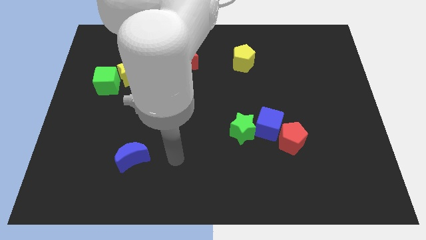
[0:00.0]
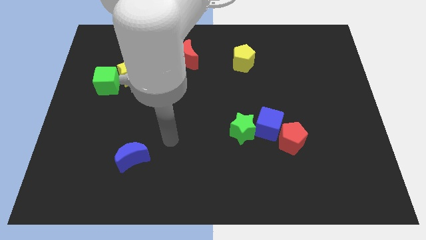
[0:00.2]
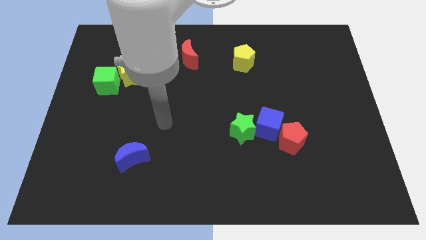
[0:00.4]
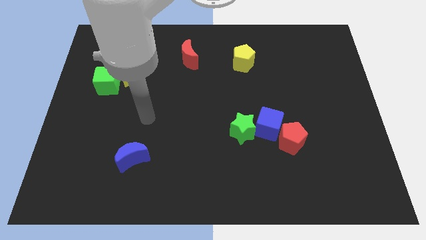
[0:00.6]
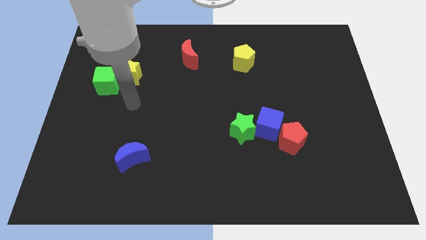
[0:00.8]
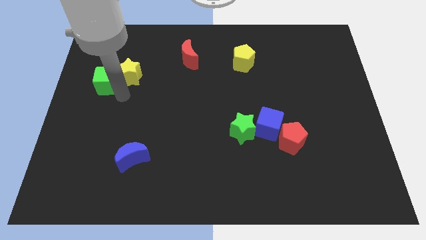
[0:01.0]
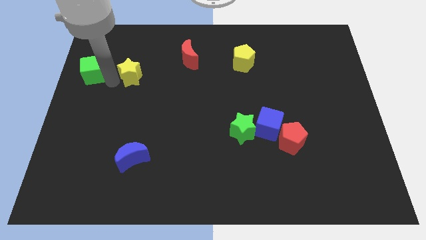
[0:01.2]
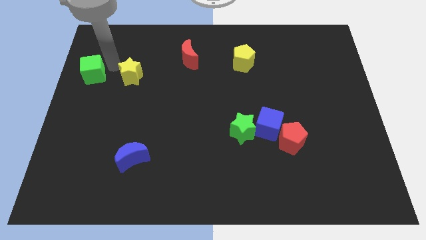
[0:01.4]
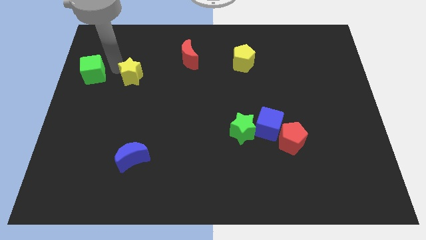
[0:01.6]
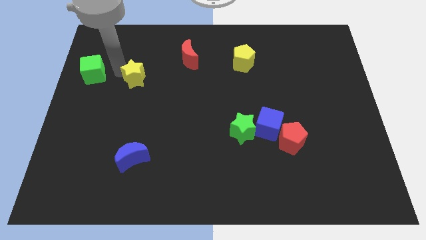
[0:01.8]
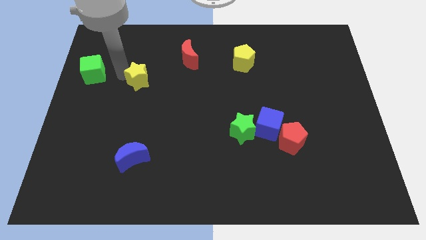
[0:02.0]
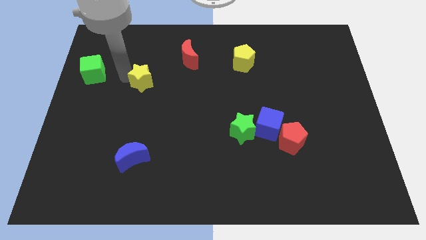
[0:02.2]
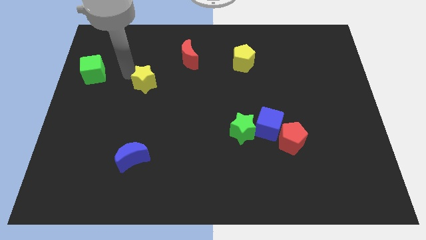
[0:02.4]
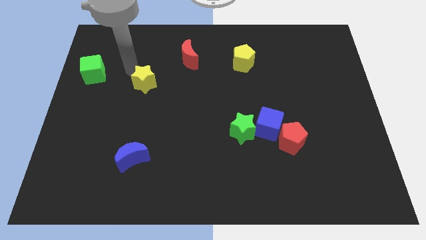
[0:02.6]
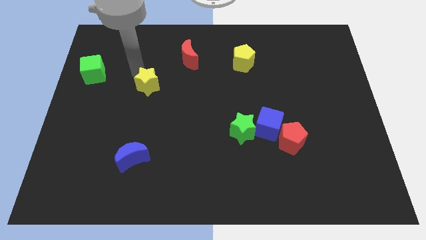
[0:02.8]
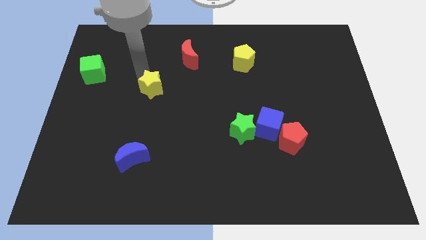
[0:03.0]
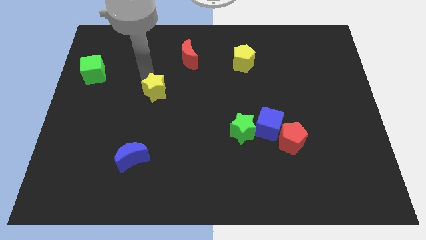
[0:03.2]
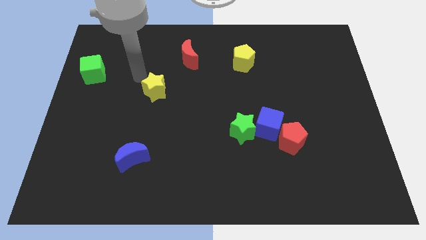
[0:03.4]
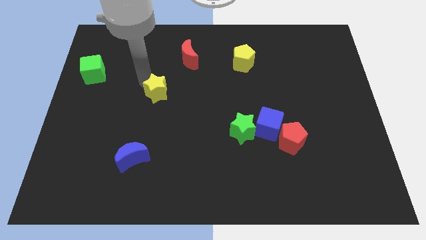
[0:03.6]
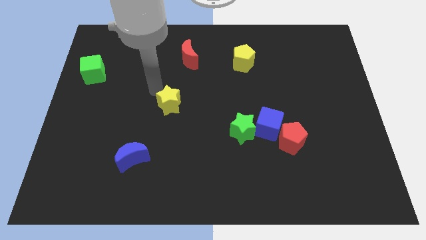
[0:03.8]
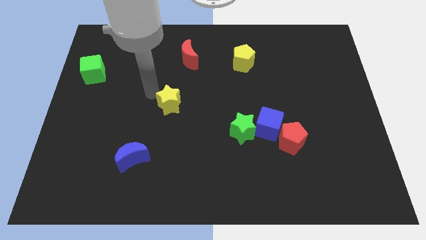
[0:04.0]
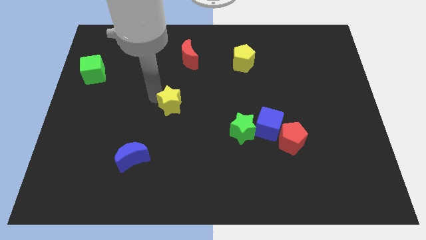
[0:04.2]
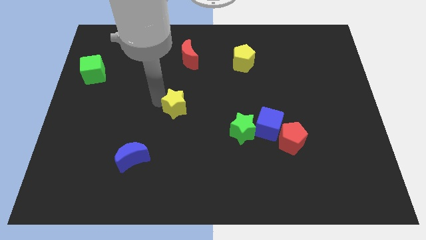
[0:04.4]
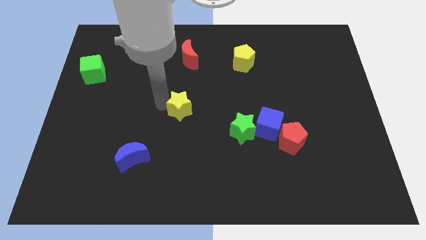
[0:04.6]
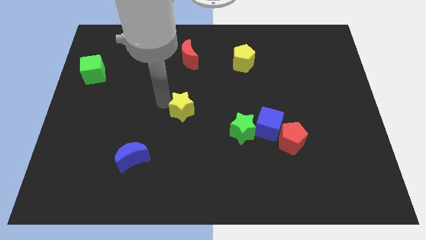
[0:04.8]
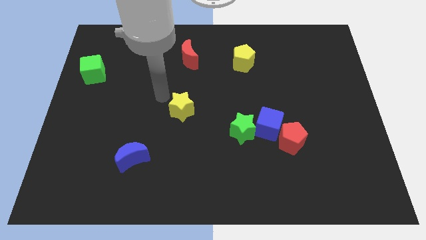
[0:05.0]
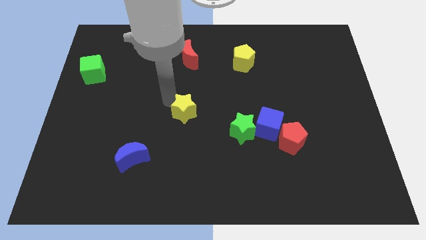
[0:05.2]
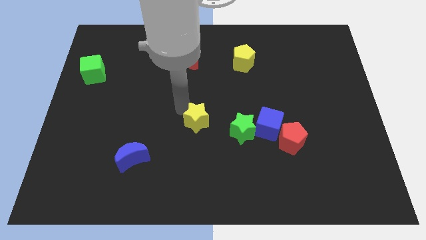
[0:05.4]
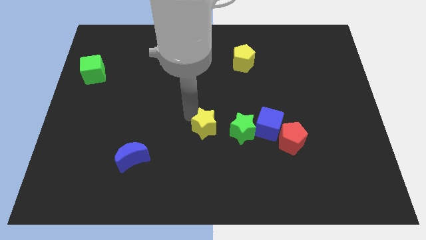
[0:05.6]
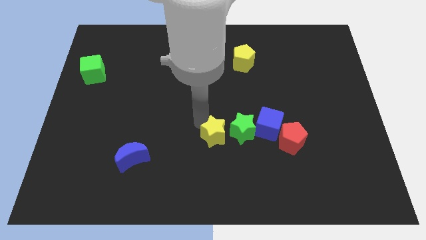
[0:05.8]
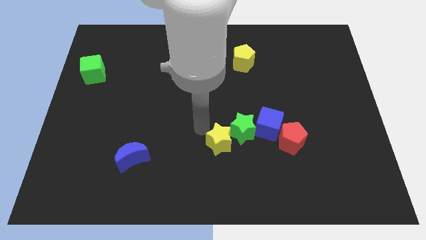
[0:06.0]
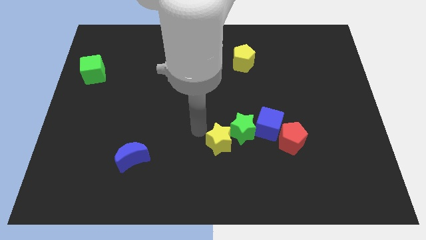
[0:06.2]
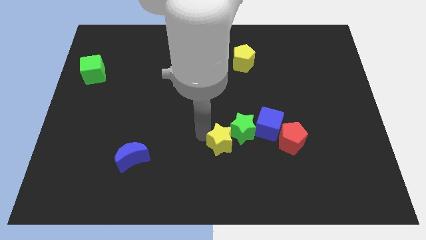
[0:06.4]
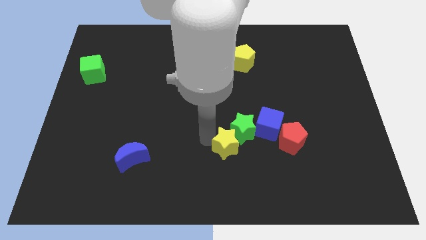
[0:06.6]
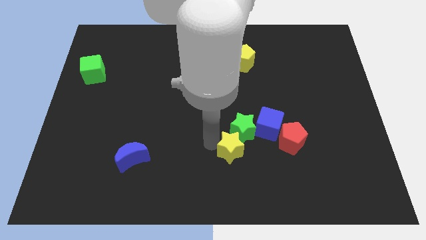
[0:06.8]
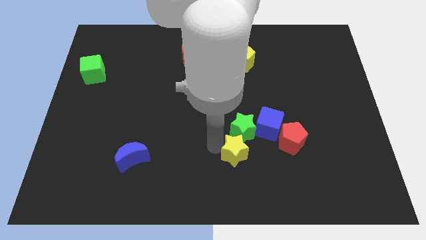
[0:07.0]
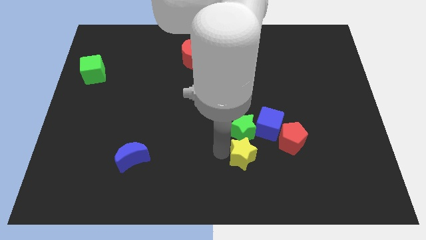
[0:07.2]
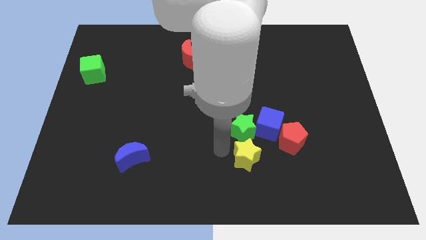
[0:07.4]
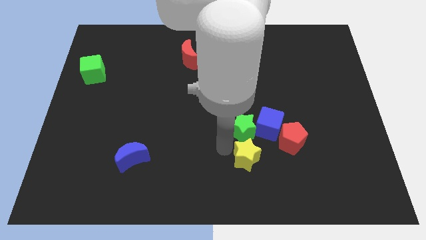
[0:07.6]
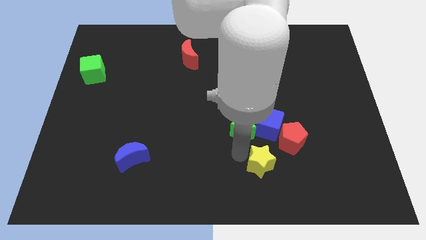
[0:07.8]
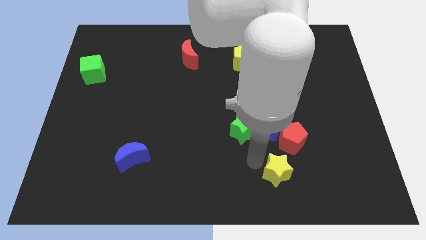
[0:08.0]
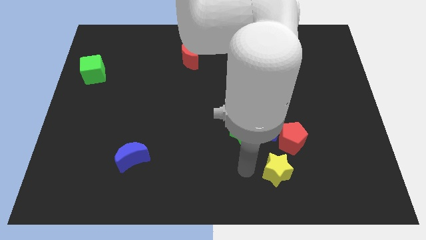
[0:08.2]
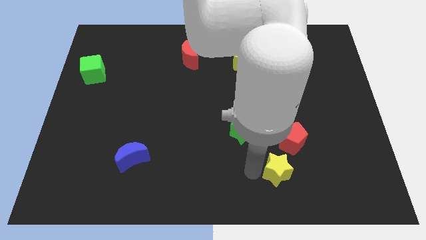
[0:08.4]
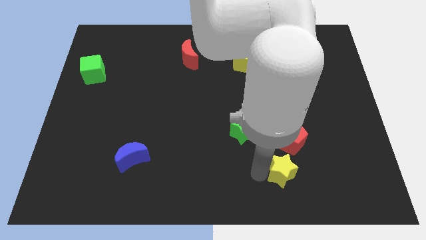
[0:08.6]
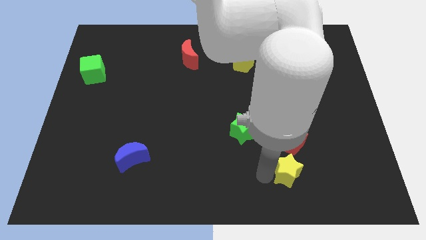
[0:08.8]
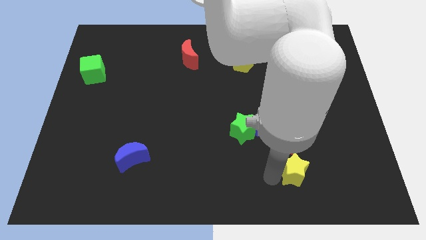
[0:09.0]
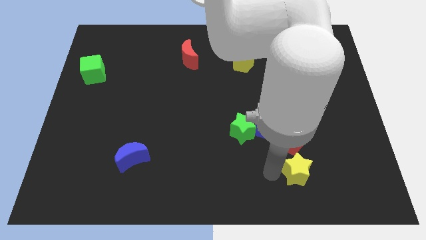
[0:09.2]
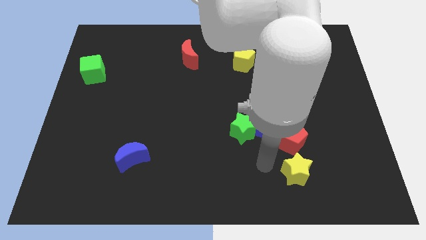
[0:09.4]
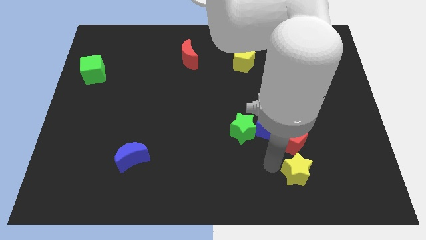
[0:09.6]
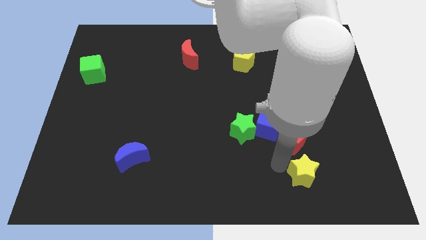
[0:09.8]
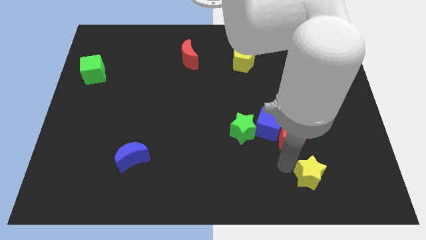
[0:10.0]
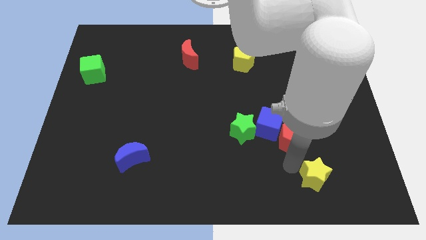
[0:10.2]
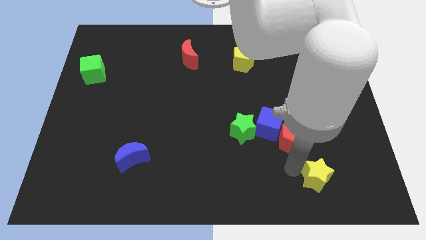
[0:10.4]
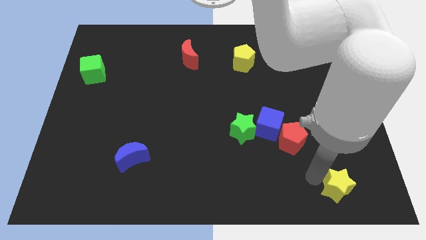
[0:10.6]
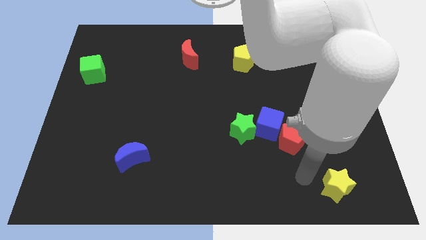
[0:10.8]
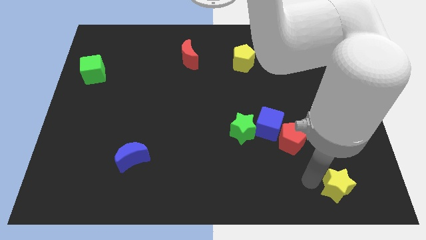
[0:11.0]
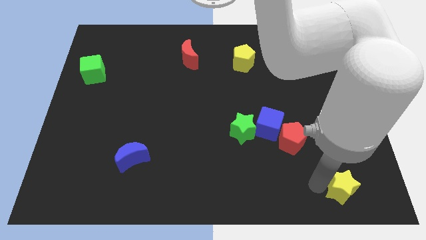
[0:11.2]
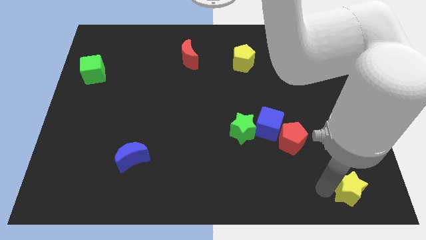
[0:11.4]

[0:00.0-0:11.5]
push the yellow star to the bottom right
